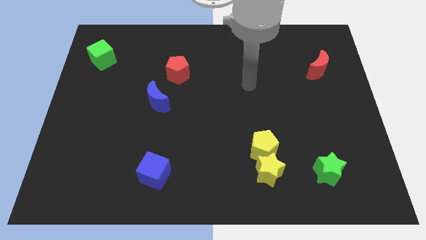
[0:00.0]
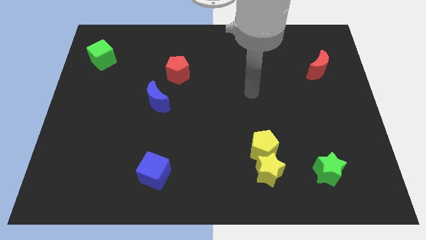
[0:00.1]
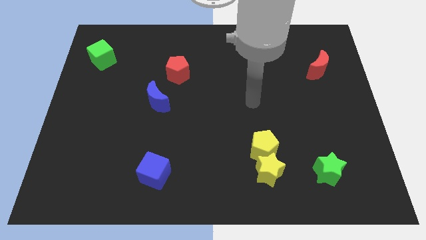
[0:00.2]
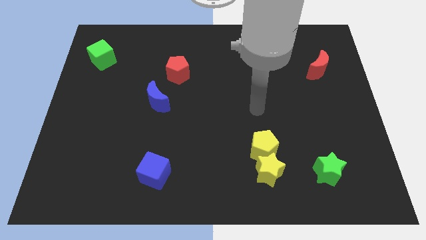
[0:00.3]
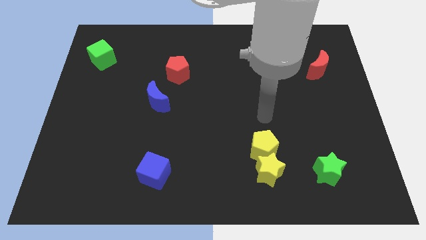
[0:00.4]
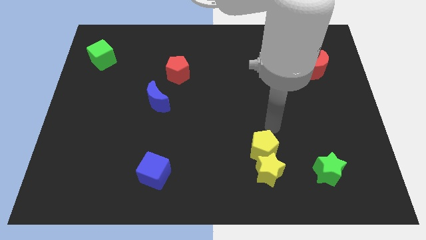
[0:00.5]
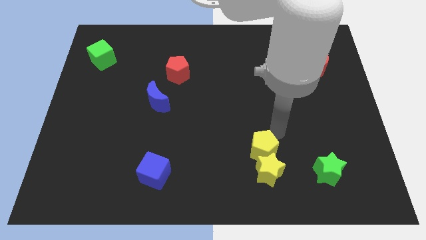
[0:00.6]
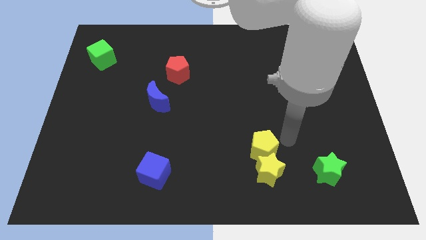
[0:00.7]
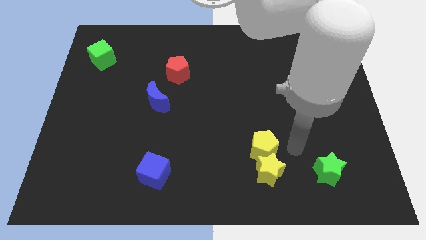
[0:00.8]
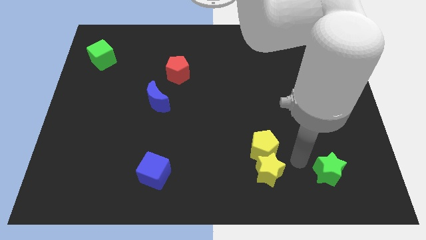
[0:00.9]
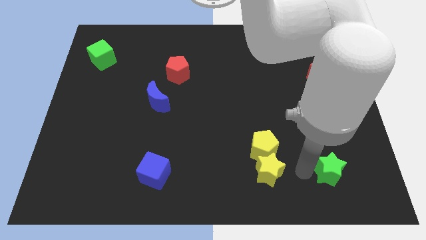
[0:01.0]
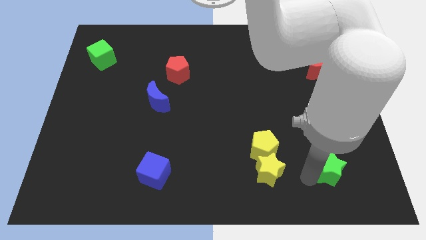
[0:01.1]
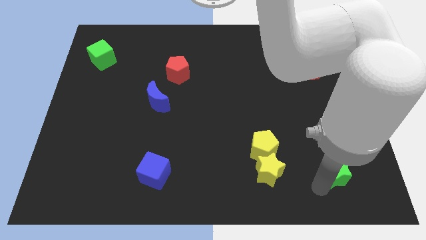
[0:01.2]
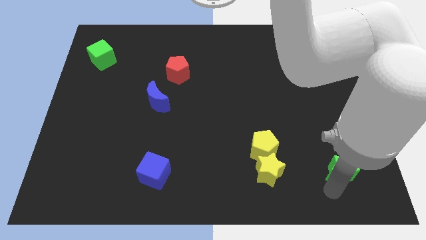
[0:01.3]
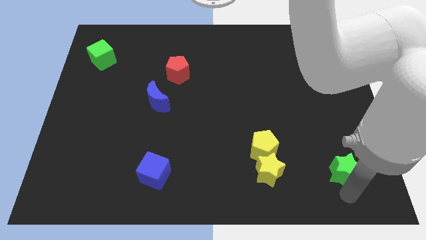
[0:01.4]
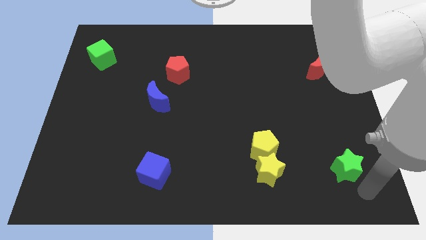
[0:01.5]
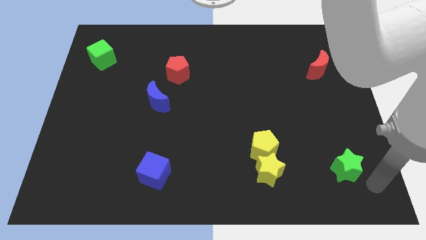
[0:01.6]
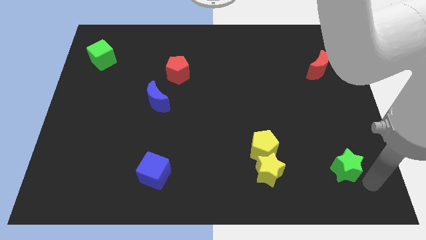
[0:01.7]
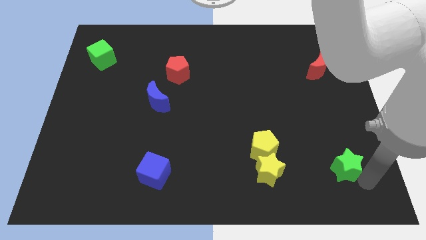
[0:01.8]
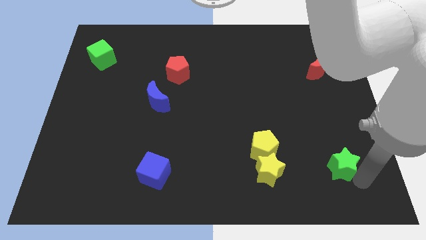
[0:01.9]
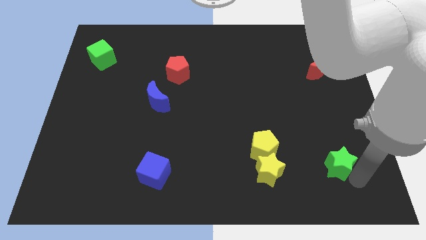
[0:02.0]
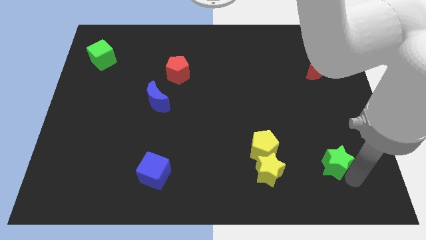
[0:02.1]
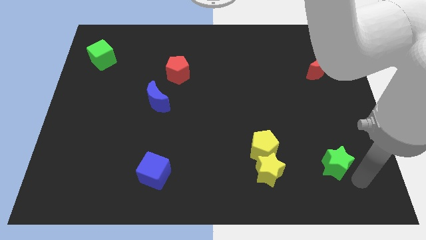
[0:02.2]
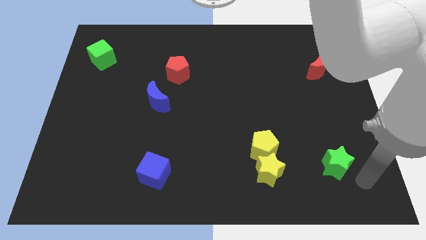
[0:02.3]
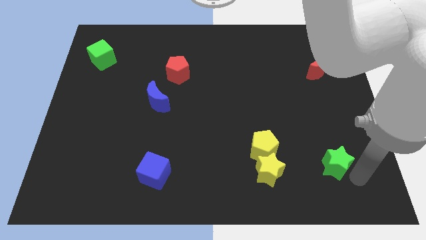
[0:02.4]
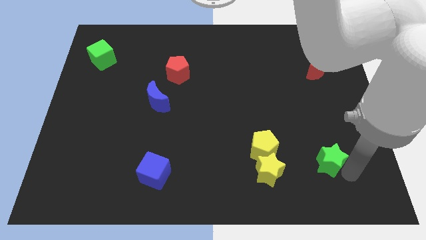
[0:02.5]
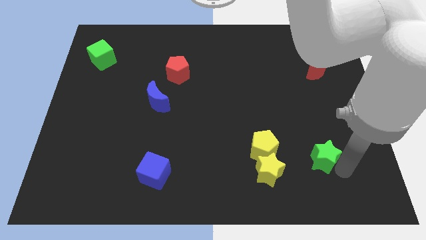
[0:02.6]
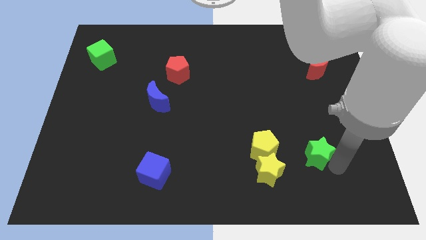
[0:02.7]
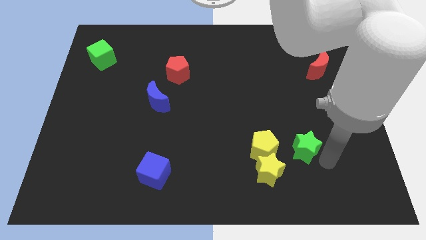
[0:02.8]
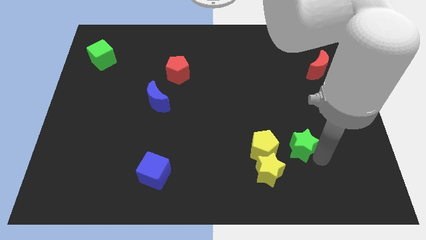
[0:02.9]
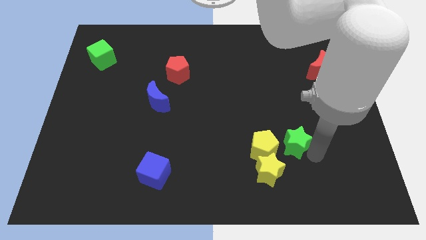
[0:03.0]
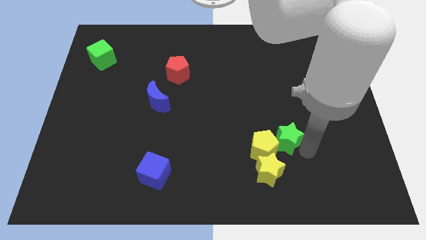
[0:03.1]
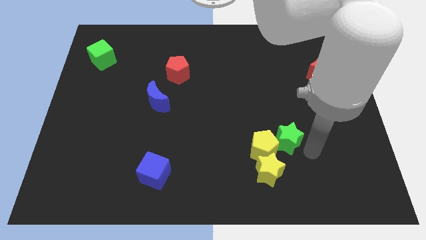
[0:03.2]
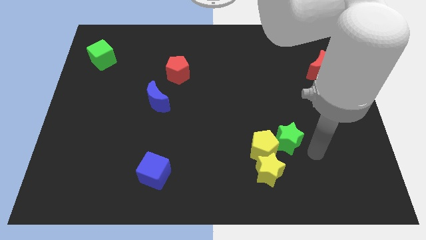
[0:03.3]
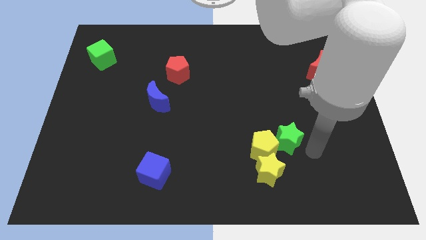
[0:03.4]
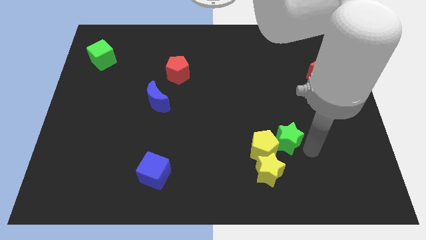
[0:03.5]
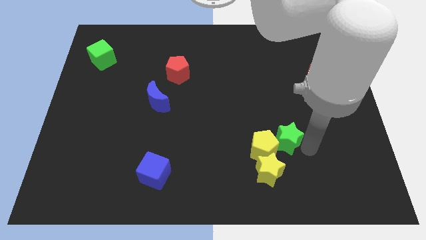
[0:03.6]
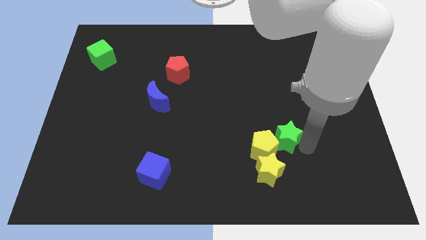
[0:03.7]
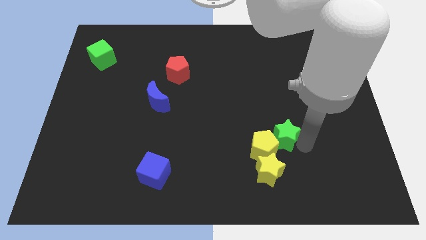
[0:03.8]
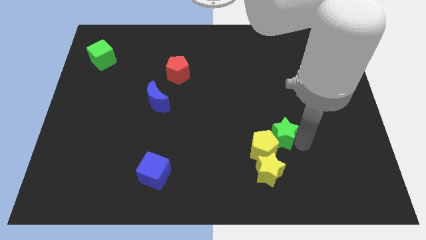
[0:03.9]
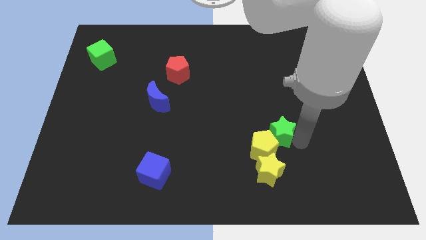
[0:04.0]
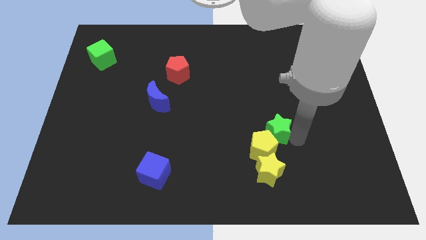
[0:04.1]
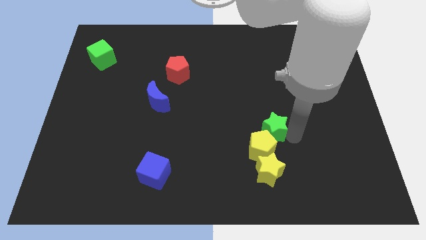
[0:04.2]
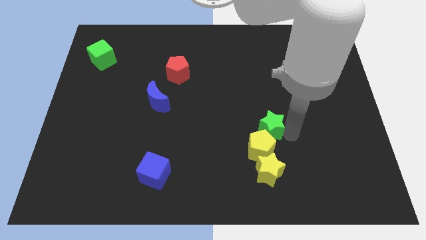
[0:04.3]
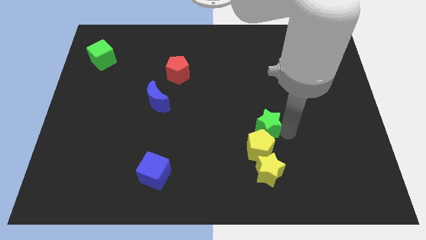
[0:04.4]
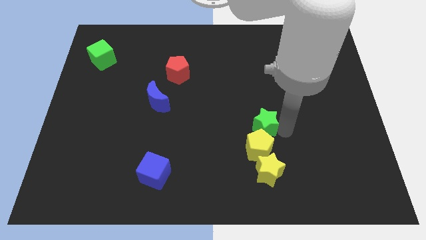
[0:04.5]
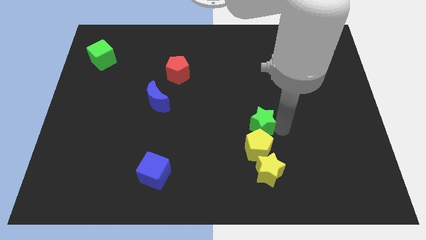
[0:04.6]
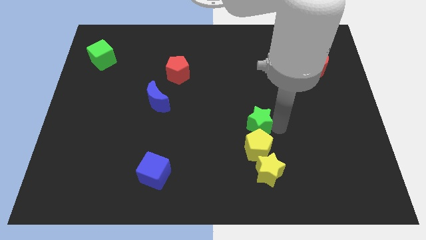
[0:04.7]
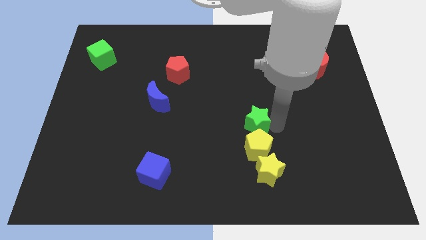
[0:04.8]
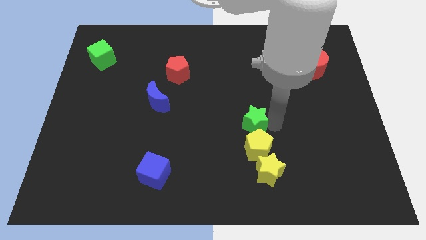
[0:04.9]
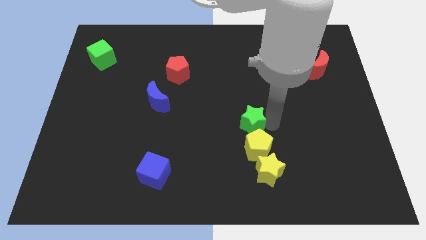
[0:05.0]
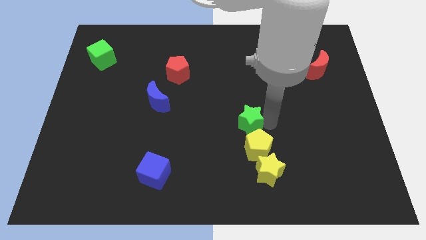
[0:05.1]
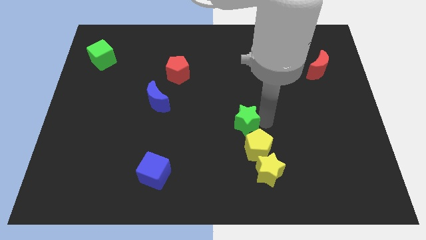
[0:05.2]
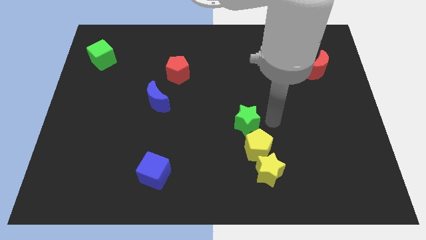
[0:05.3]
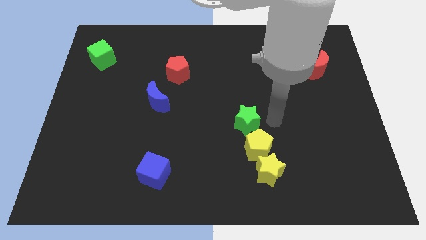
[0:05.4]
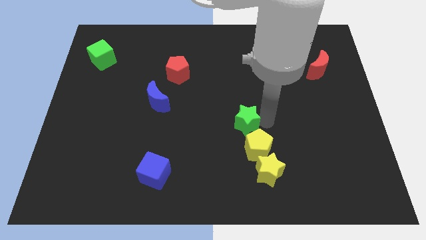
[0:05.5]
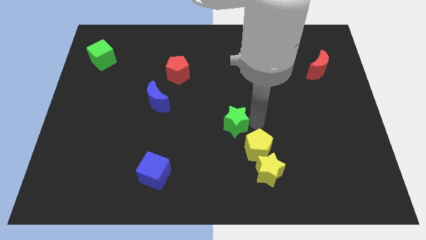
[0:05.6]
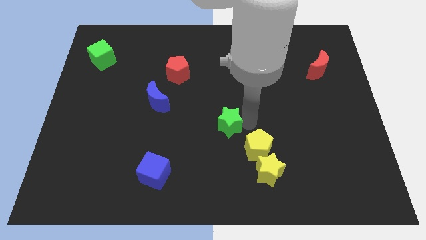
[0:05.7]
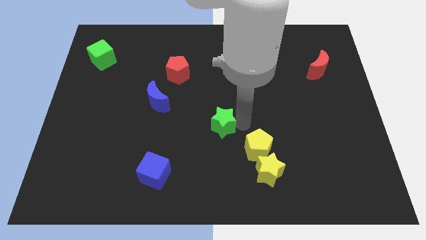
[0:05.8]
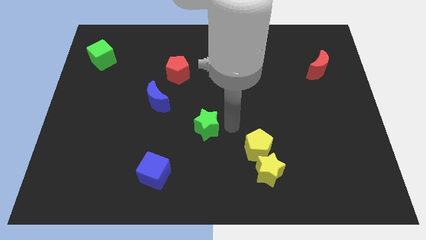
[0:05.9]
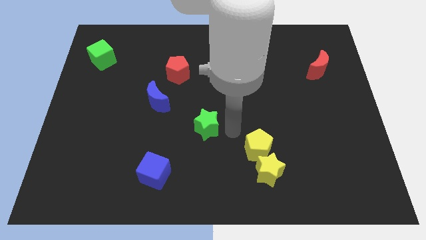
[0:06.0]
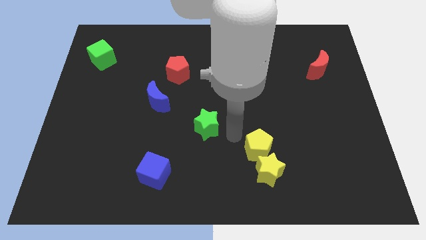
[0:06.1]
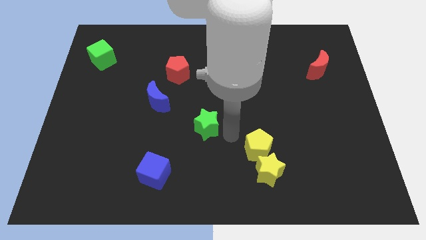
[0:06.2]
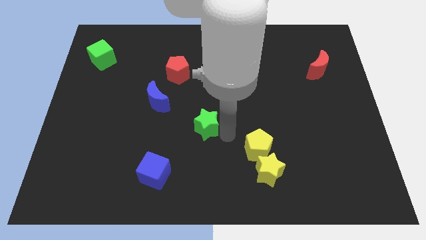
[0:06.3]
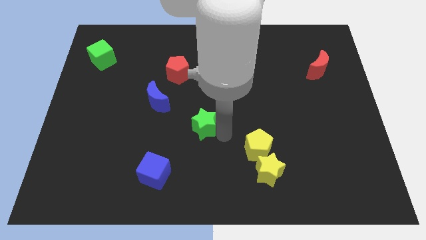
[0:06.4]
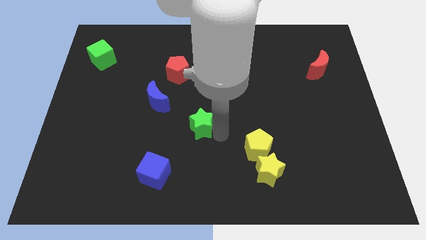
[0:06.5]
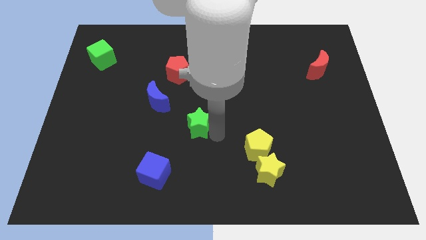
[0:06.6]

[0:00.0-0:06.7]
slide the green star to the bottom right of the blue moon

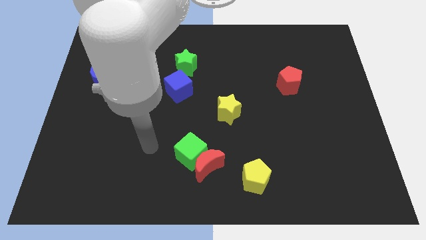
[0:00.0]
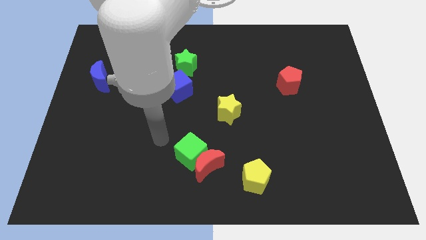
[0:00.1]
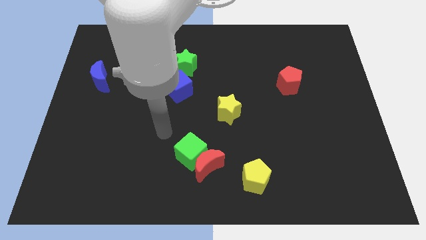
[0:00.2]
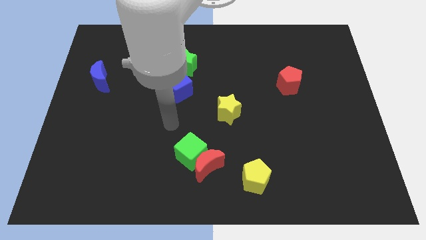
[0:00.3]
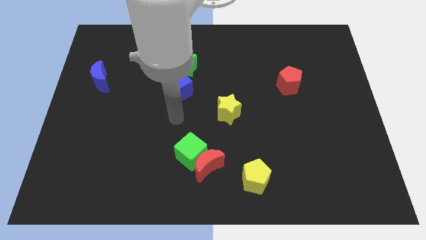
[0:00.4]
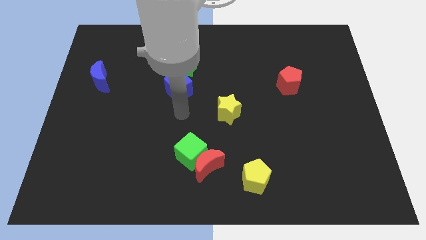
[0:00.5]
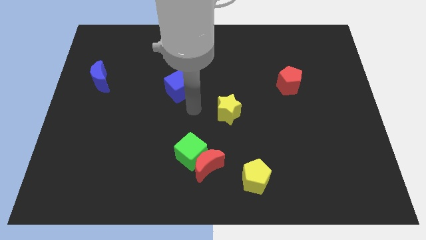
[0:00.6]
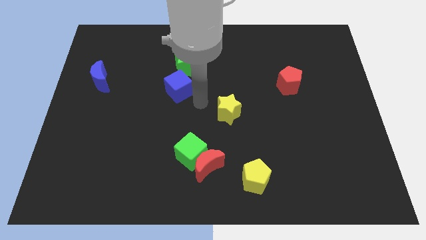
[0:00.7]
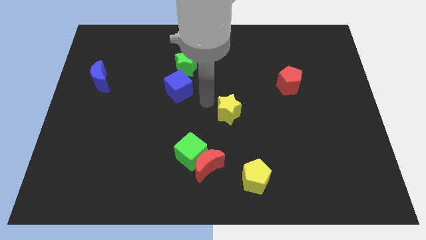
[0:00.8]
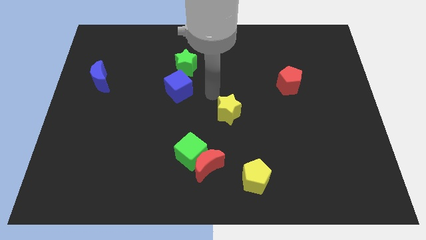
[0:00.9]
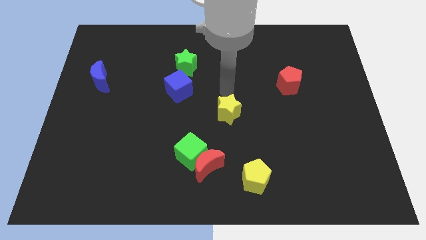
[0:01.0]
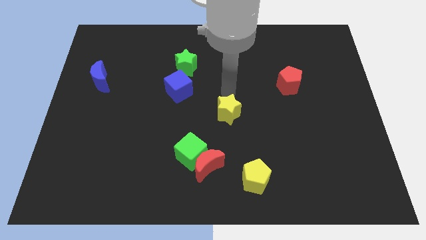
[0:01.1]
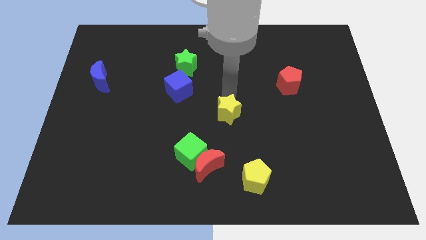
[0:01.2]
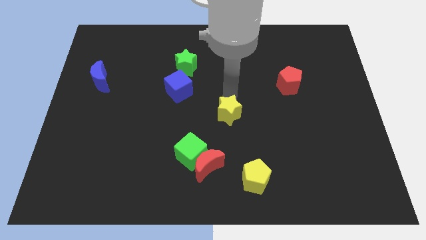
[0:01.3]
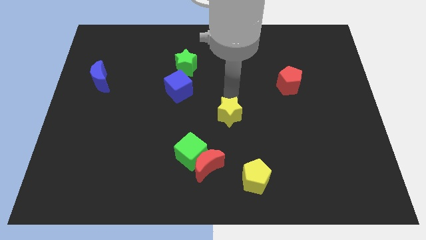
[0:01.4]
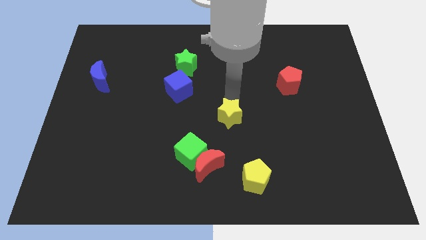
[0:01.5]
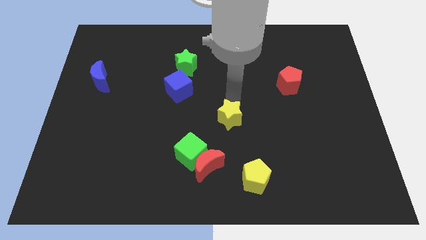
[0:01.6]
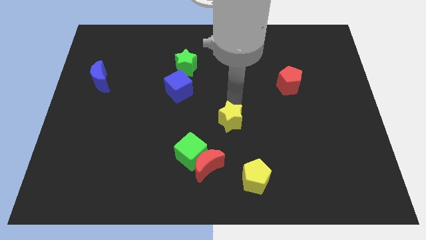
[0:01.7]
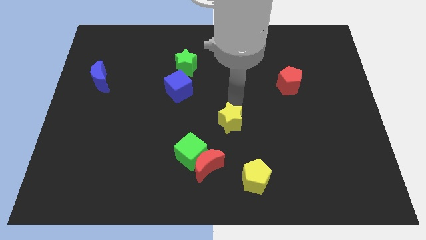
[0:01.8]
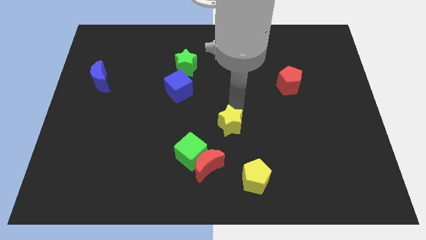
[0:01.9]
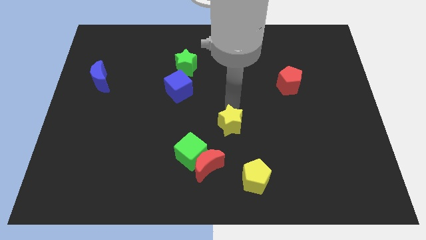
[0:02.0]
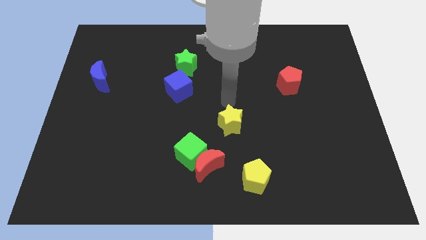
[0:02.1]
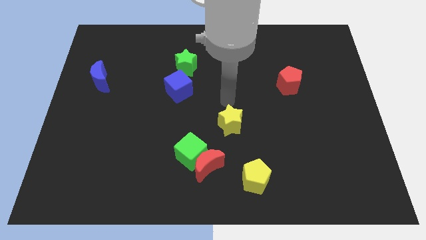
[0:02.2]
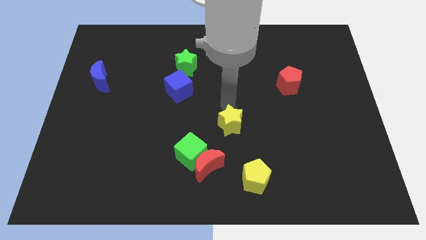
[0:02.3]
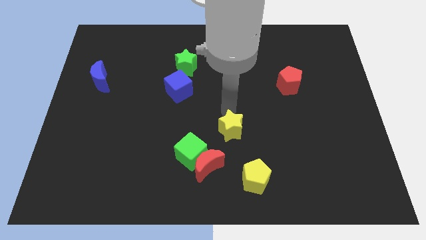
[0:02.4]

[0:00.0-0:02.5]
put the yellow star diagonally up and to the right of the red moon
